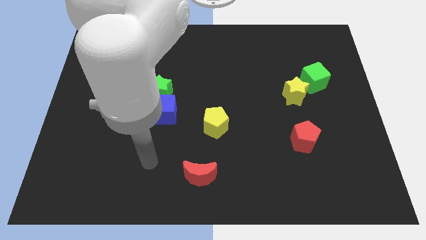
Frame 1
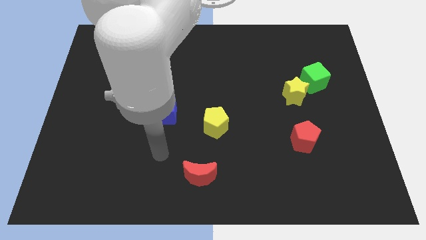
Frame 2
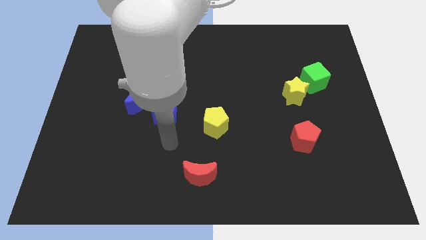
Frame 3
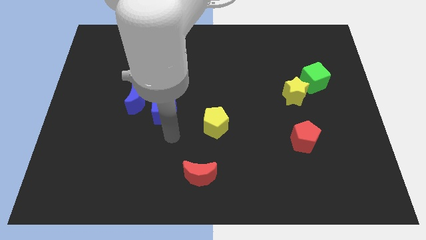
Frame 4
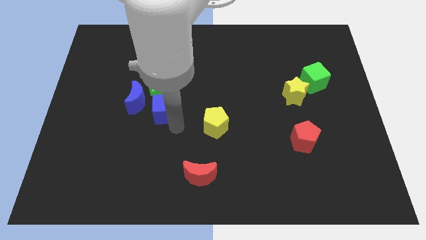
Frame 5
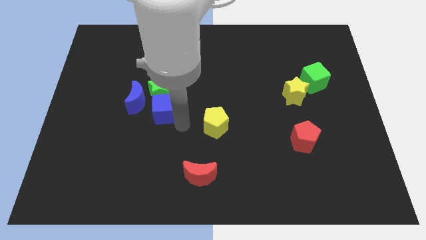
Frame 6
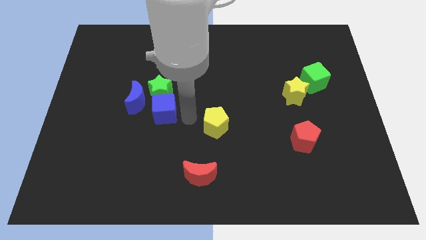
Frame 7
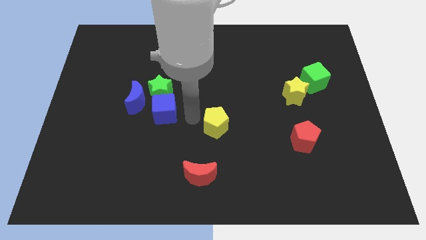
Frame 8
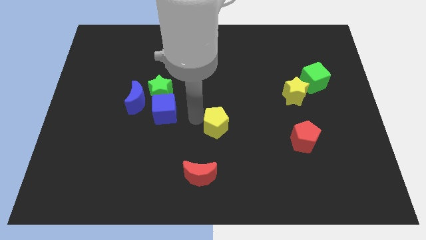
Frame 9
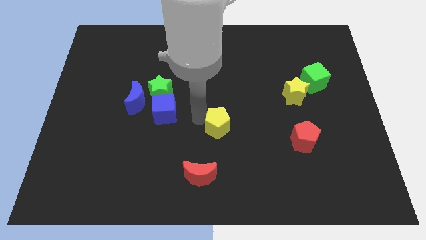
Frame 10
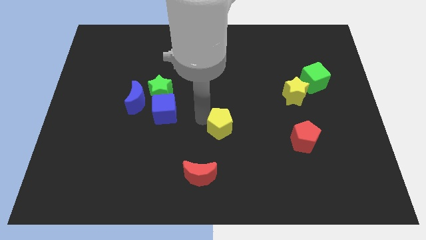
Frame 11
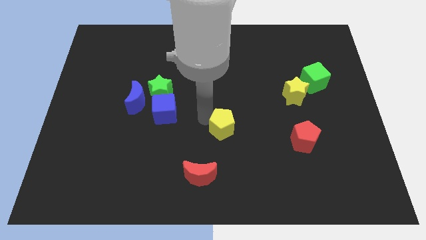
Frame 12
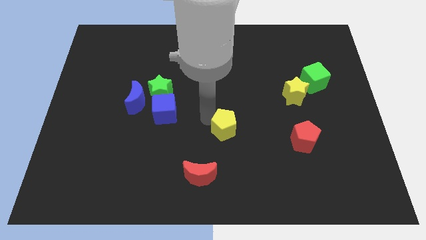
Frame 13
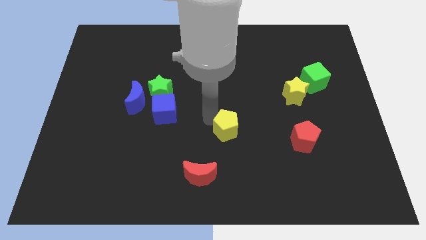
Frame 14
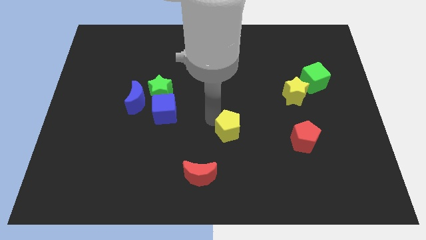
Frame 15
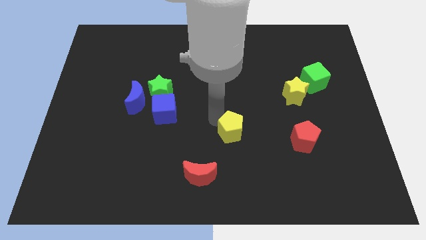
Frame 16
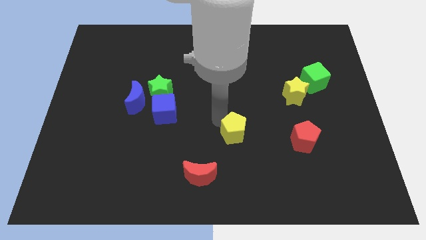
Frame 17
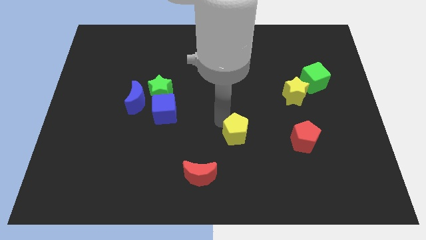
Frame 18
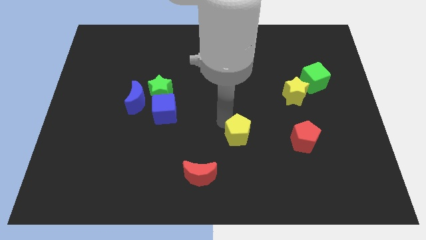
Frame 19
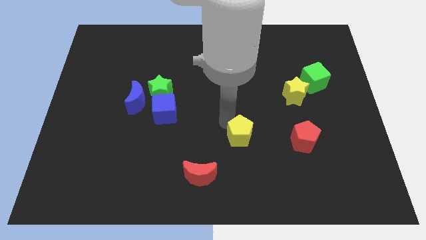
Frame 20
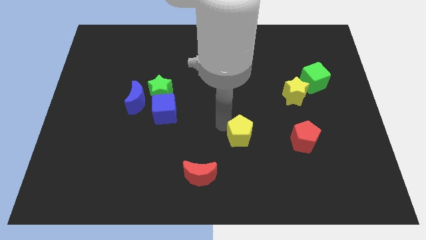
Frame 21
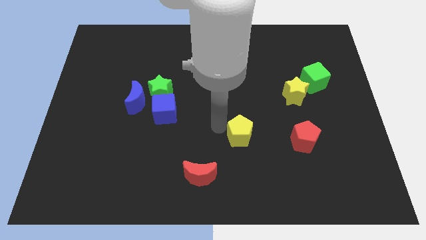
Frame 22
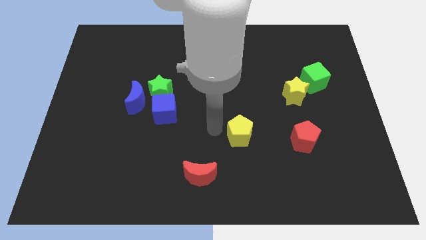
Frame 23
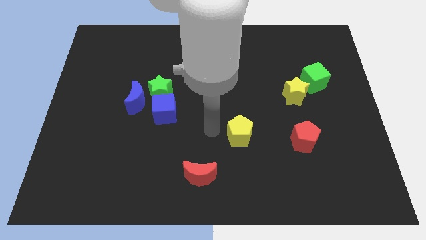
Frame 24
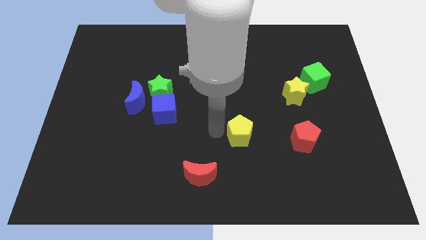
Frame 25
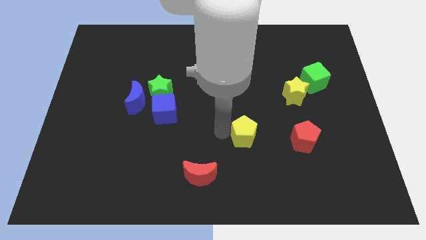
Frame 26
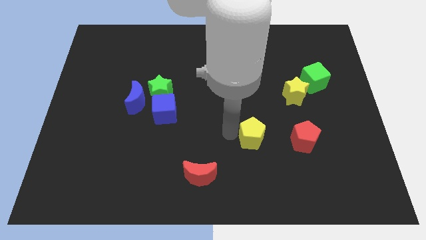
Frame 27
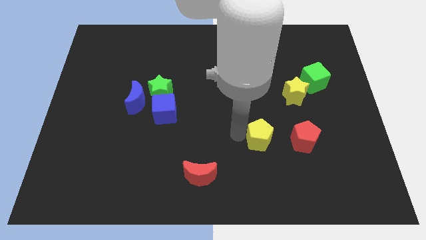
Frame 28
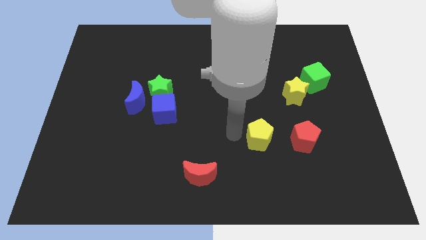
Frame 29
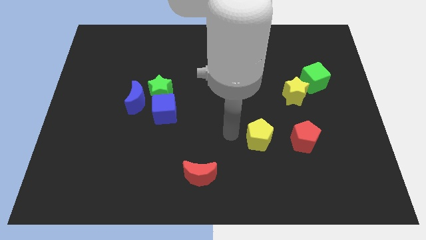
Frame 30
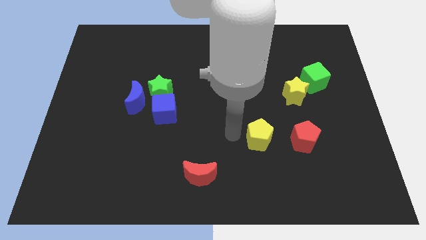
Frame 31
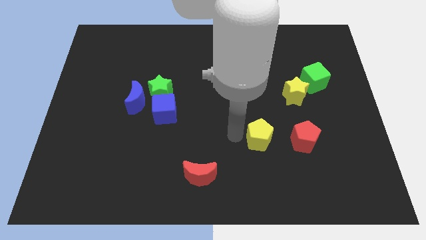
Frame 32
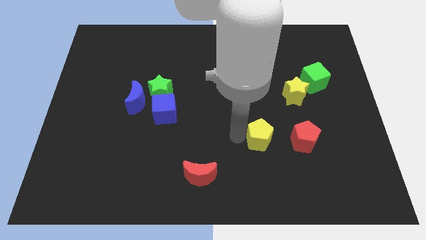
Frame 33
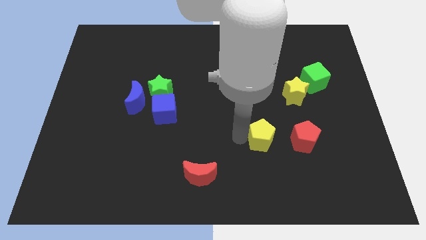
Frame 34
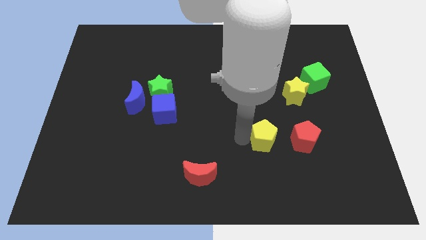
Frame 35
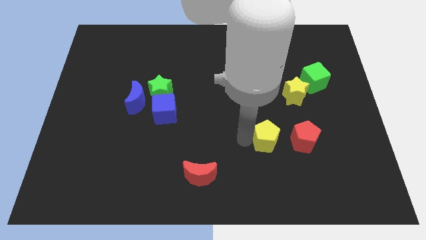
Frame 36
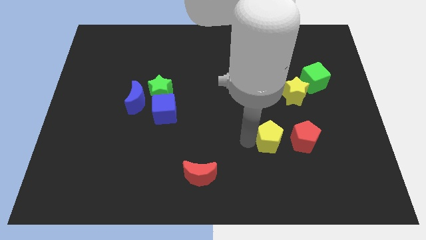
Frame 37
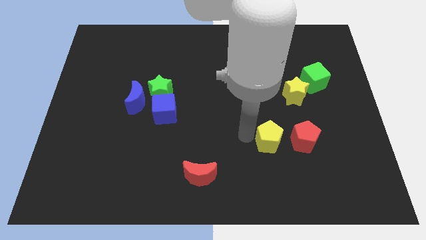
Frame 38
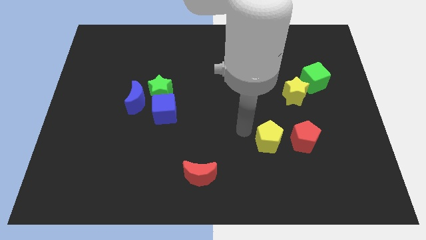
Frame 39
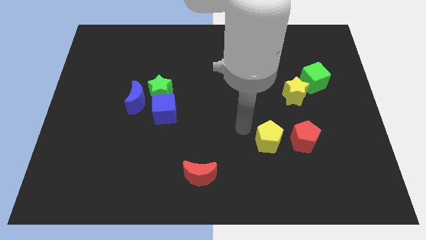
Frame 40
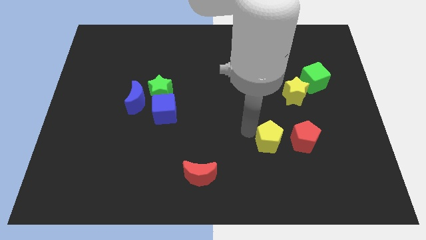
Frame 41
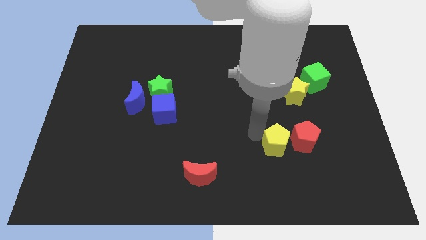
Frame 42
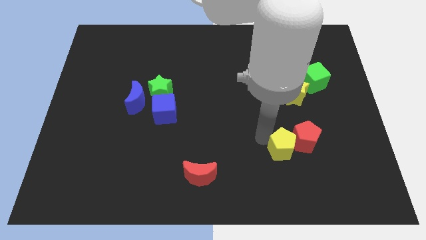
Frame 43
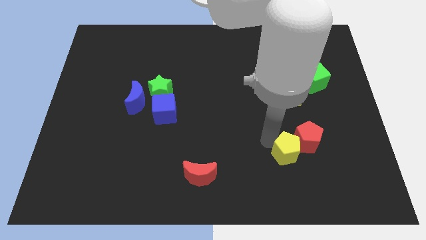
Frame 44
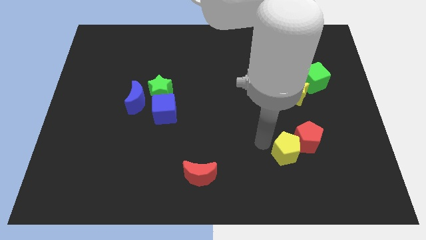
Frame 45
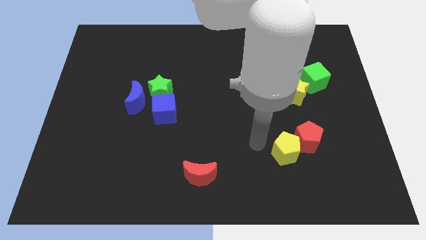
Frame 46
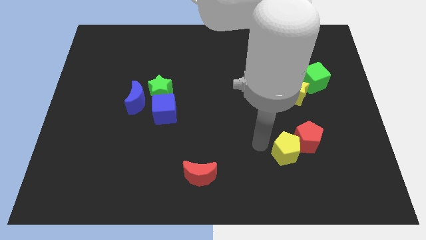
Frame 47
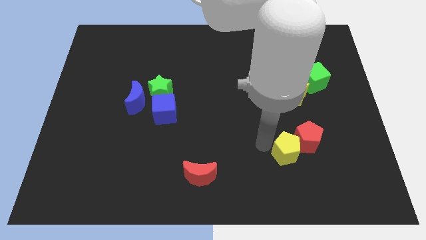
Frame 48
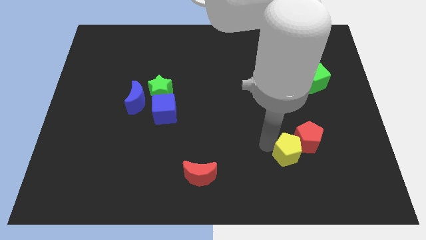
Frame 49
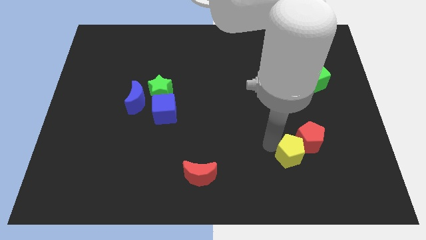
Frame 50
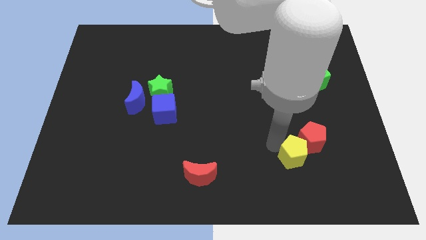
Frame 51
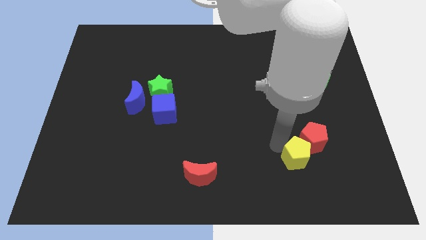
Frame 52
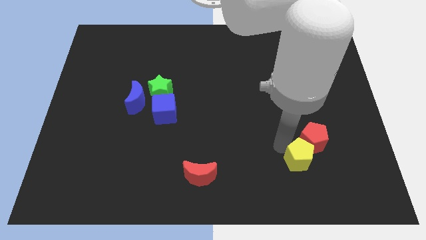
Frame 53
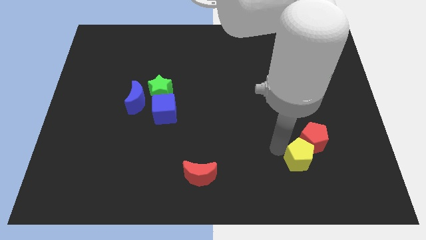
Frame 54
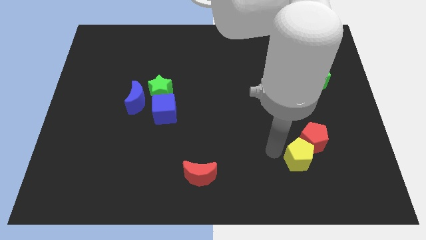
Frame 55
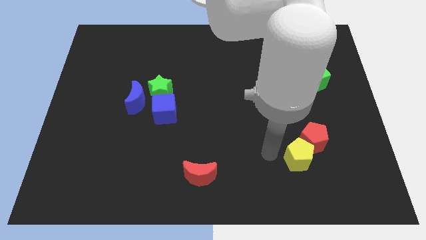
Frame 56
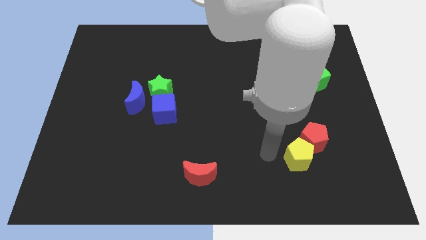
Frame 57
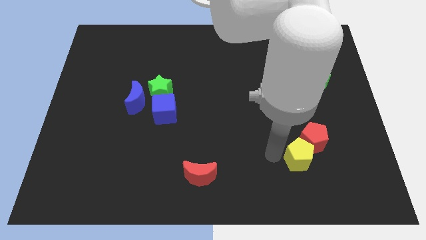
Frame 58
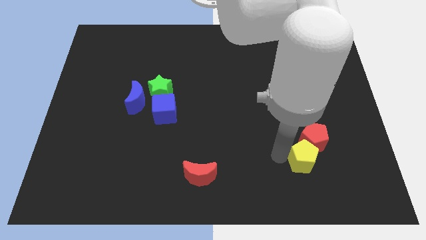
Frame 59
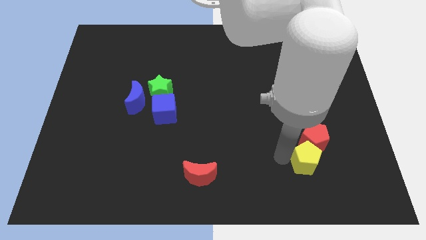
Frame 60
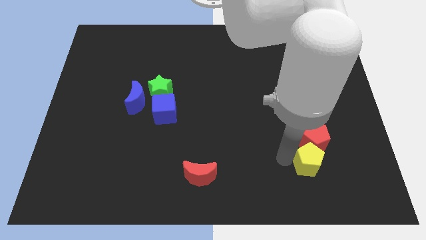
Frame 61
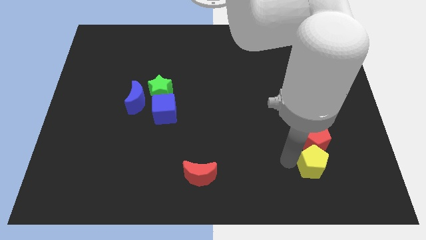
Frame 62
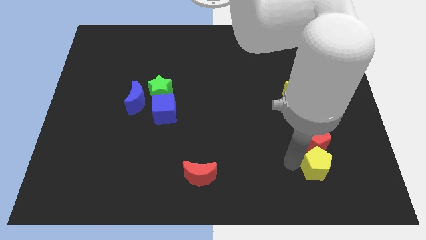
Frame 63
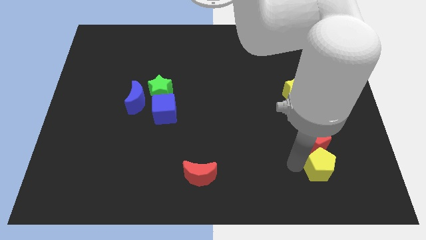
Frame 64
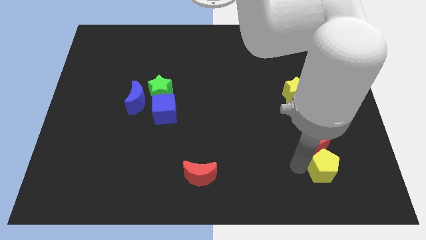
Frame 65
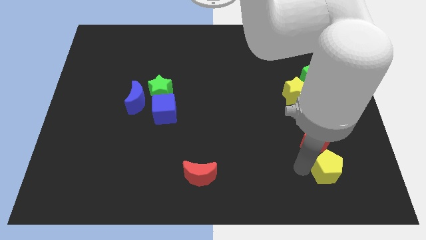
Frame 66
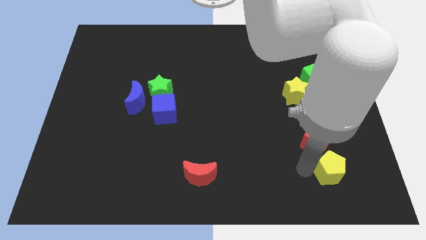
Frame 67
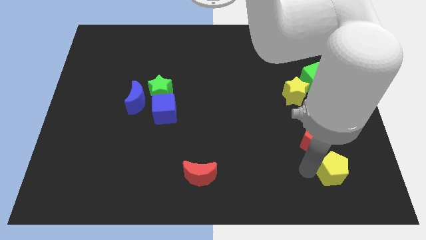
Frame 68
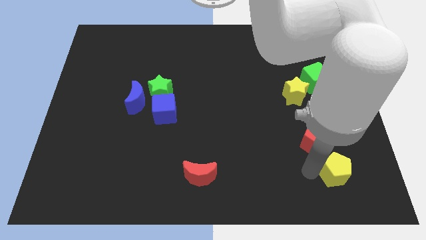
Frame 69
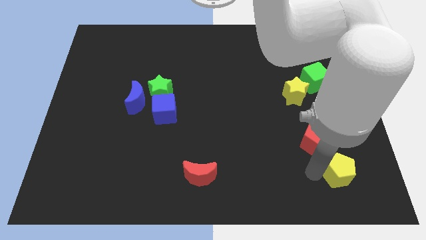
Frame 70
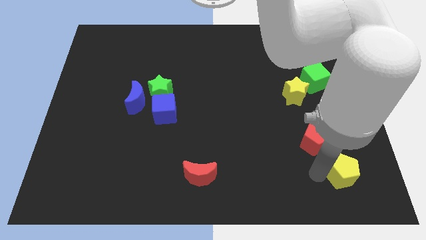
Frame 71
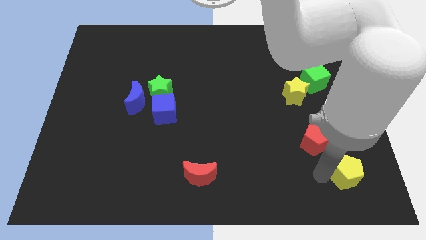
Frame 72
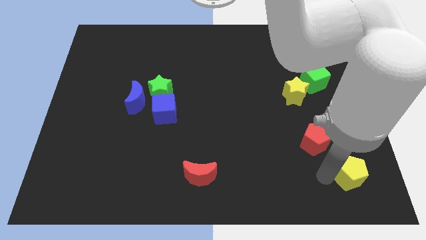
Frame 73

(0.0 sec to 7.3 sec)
push the yellow pentagon to the lower right corner
